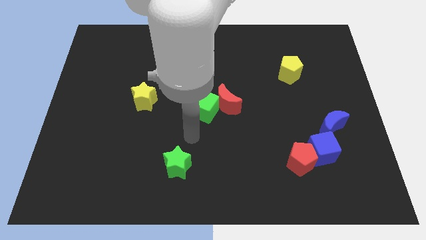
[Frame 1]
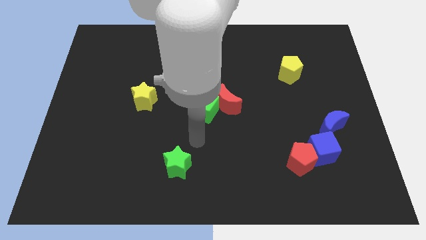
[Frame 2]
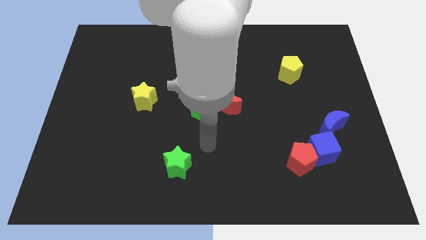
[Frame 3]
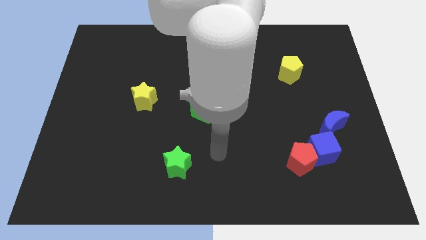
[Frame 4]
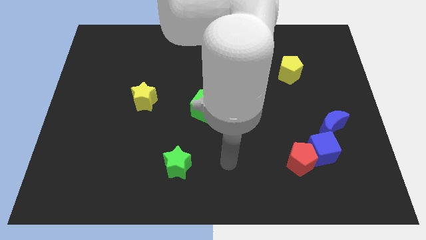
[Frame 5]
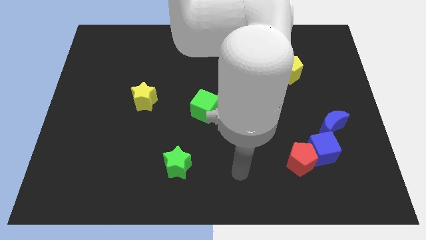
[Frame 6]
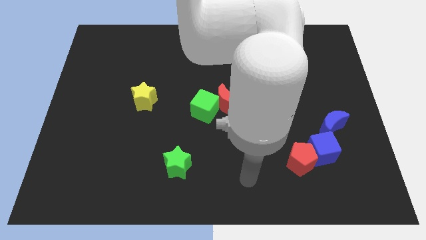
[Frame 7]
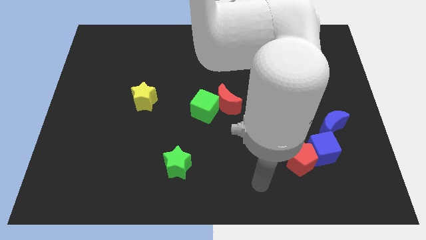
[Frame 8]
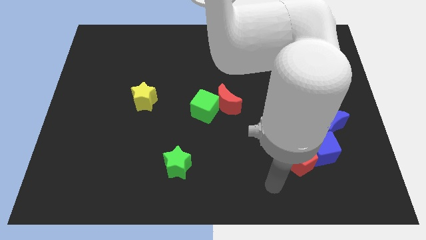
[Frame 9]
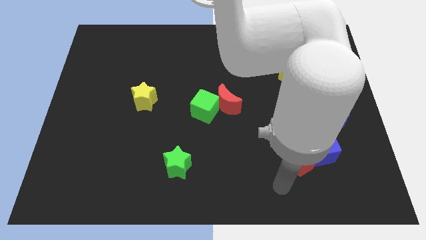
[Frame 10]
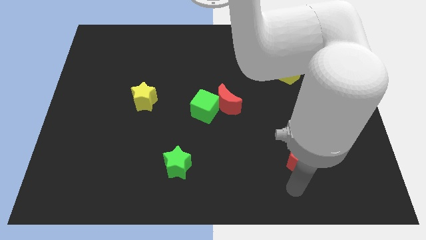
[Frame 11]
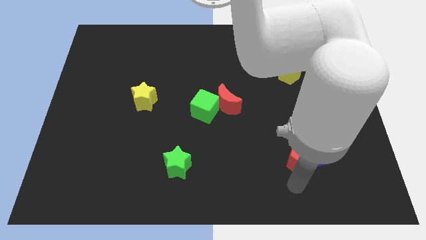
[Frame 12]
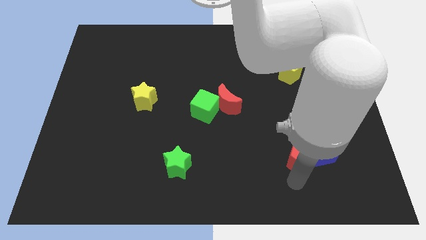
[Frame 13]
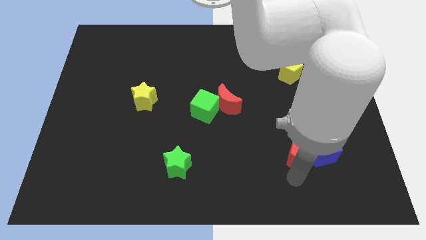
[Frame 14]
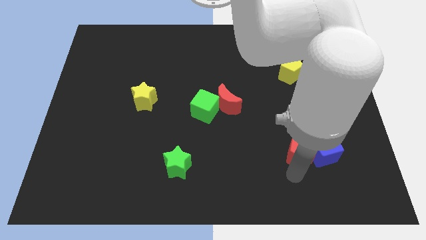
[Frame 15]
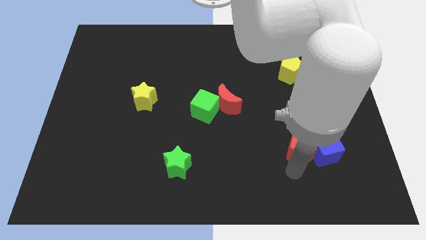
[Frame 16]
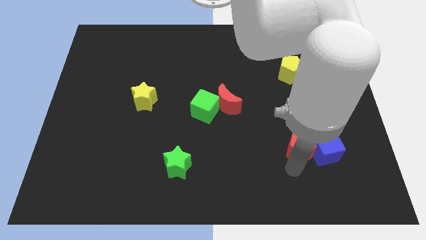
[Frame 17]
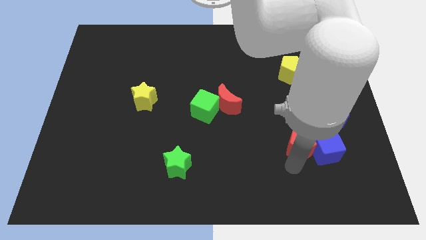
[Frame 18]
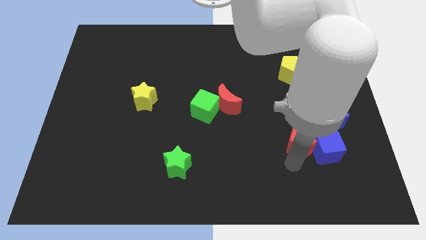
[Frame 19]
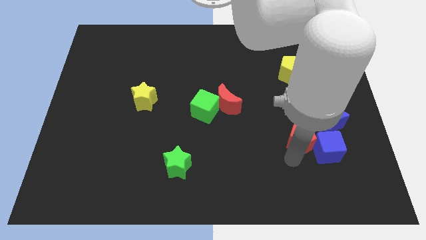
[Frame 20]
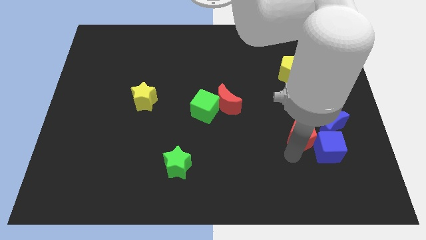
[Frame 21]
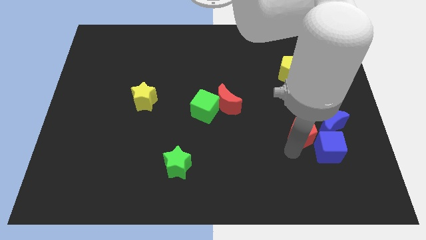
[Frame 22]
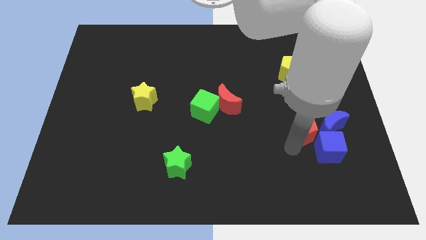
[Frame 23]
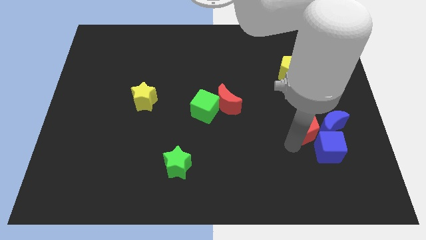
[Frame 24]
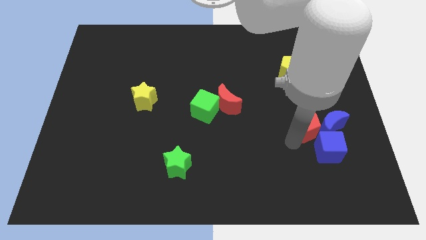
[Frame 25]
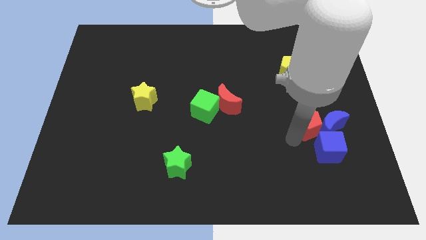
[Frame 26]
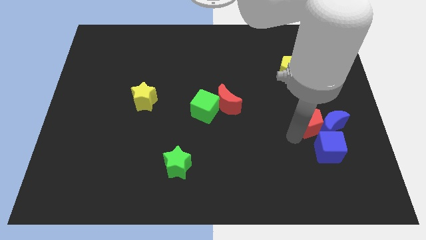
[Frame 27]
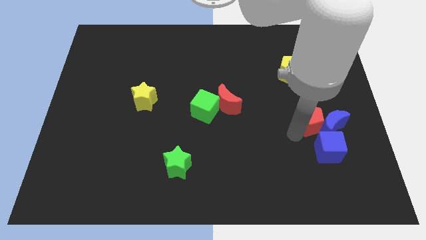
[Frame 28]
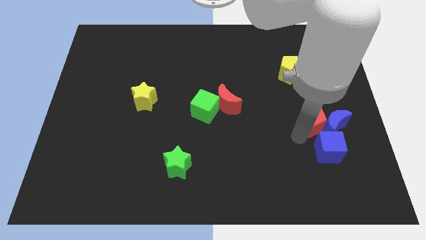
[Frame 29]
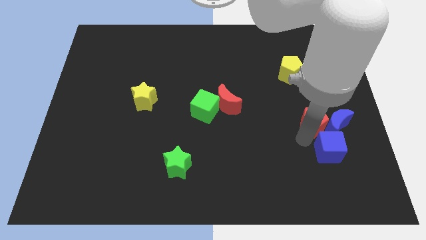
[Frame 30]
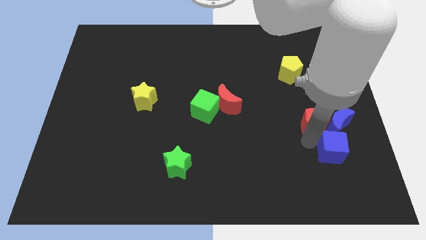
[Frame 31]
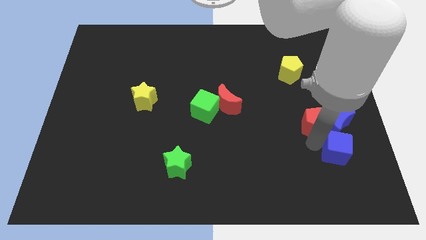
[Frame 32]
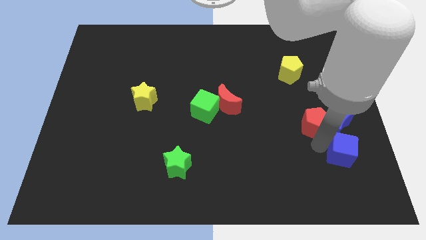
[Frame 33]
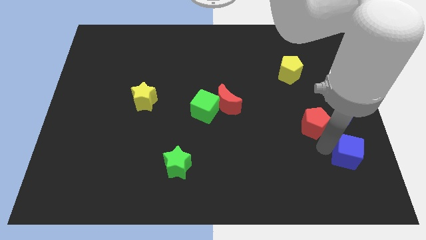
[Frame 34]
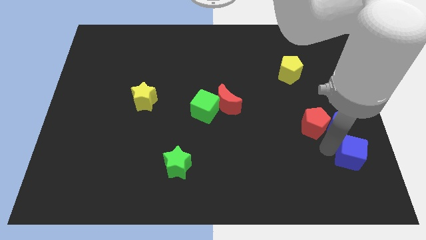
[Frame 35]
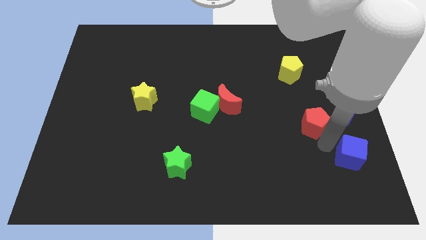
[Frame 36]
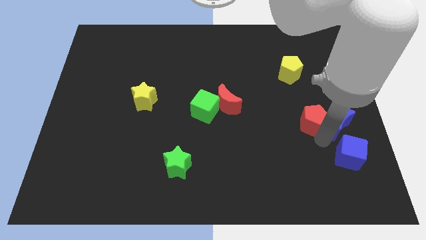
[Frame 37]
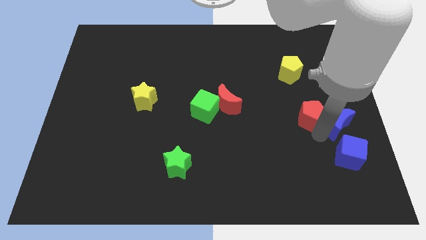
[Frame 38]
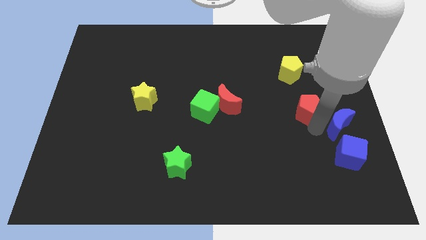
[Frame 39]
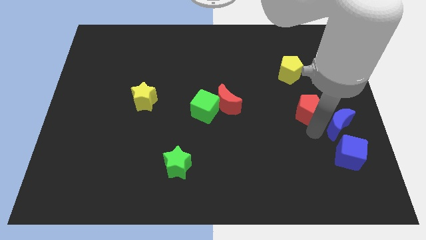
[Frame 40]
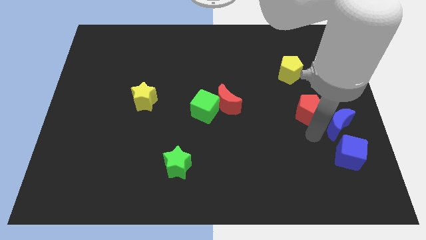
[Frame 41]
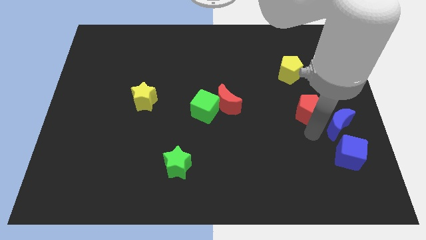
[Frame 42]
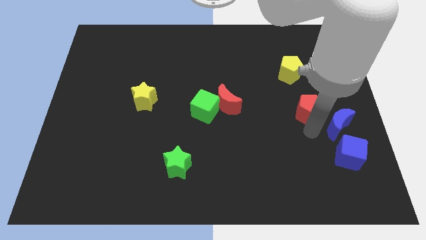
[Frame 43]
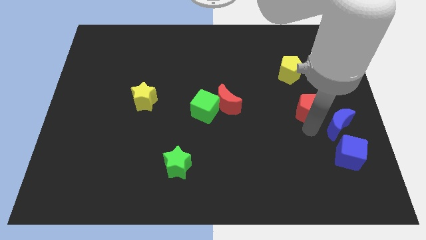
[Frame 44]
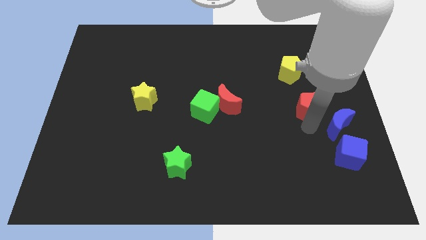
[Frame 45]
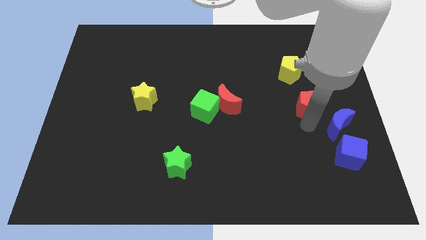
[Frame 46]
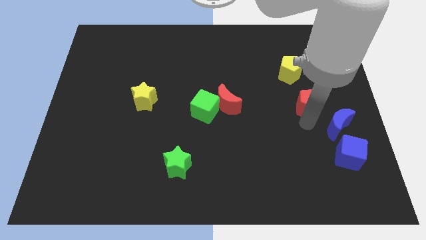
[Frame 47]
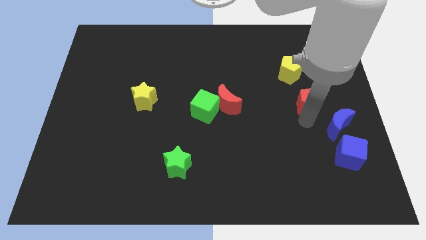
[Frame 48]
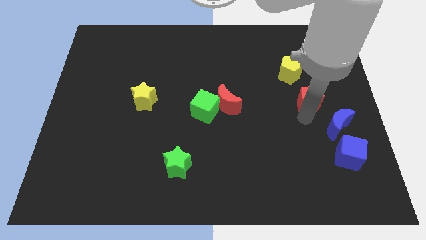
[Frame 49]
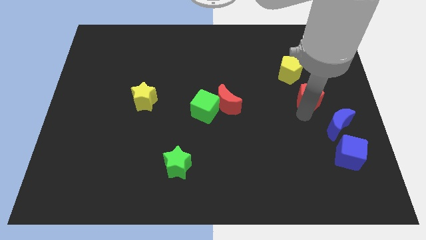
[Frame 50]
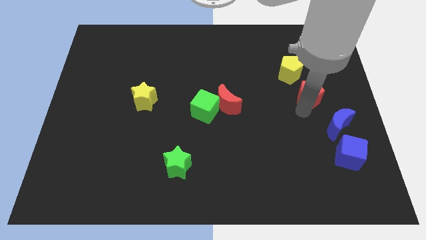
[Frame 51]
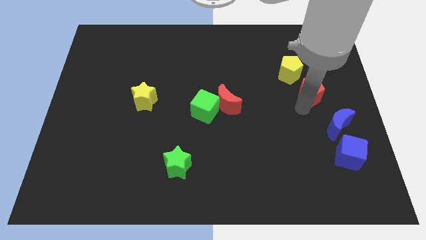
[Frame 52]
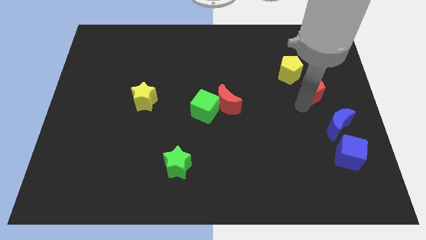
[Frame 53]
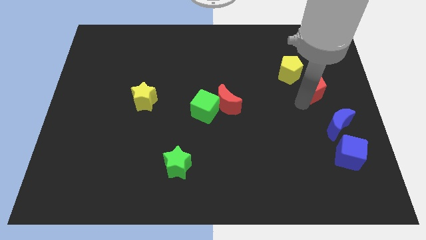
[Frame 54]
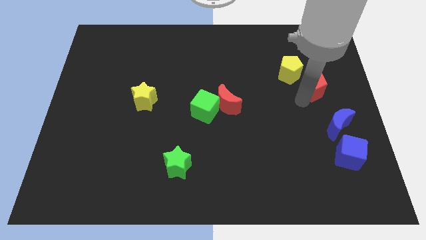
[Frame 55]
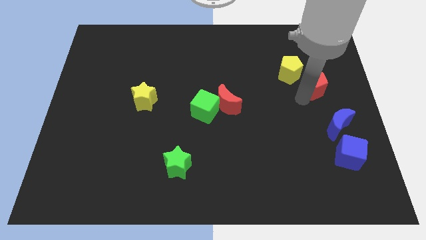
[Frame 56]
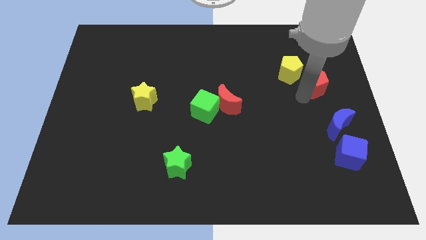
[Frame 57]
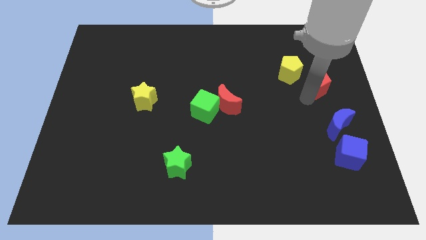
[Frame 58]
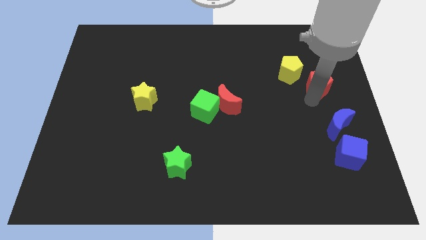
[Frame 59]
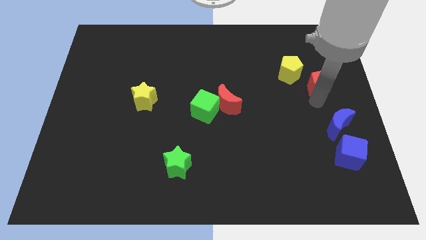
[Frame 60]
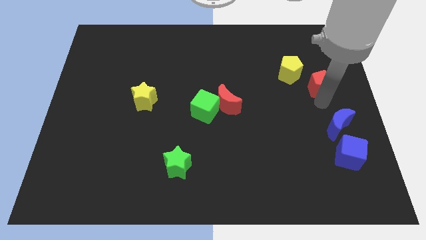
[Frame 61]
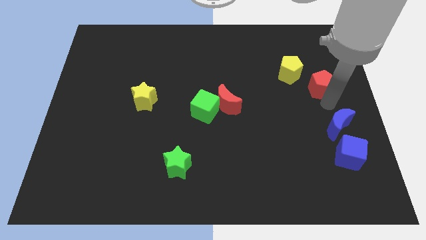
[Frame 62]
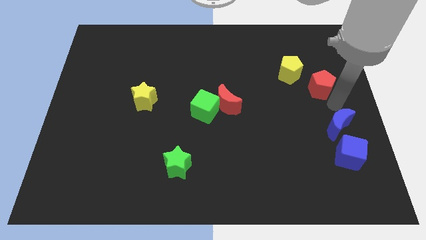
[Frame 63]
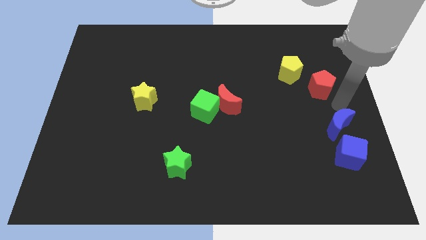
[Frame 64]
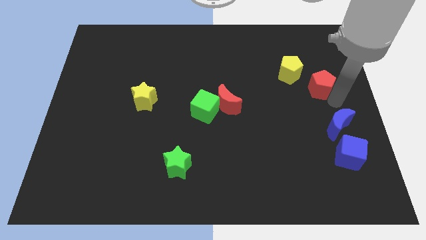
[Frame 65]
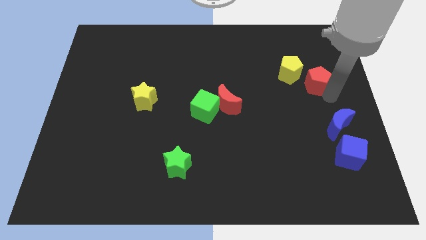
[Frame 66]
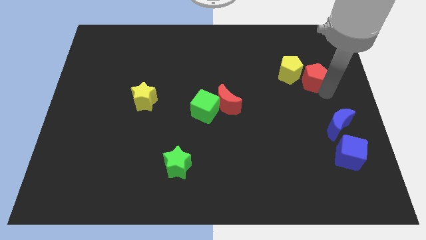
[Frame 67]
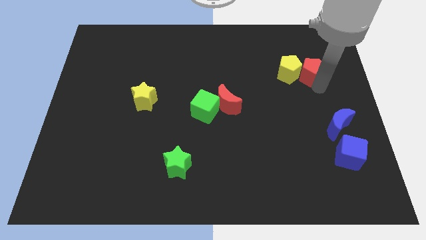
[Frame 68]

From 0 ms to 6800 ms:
push the red pentagon to the top right of the yellow pentagon

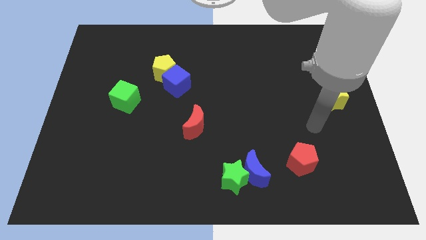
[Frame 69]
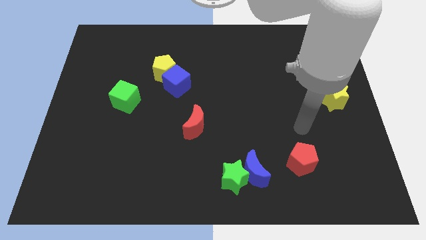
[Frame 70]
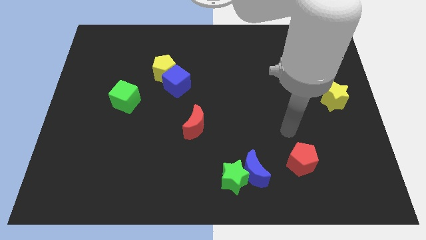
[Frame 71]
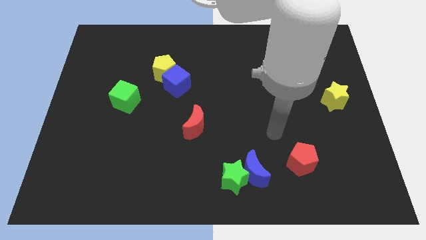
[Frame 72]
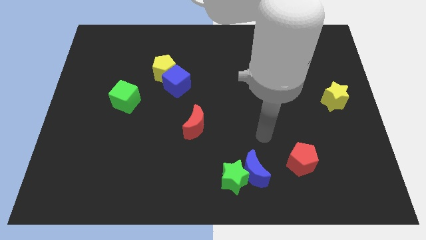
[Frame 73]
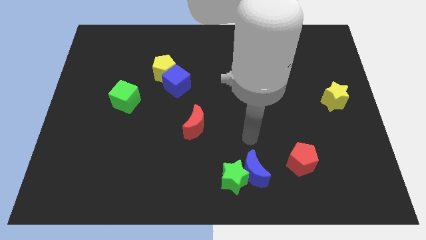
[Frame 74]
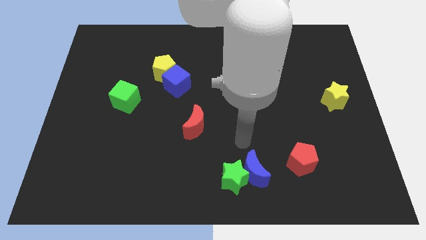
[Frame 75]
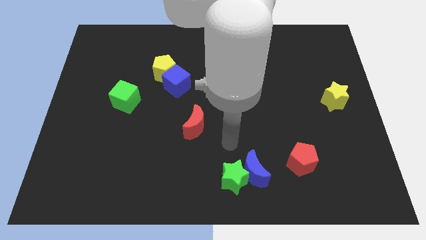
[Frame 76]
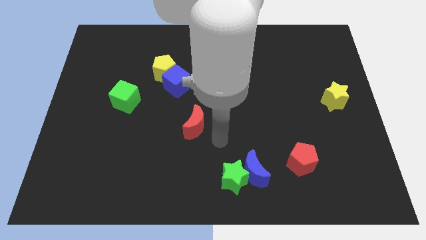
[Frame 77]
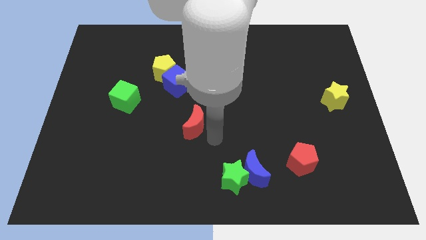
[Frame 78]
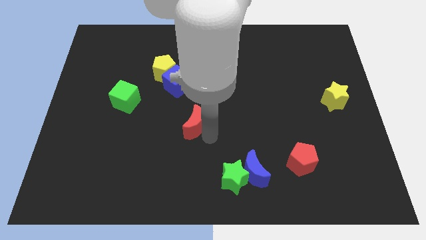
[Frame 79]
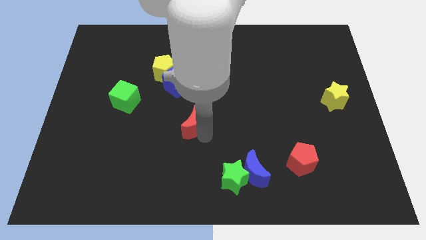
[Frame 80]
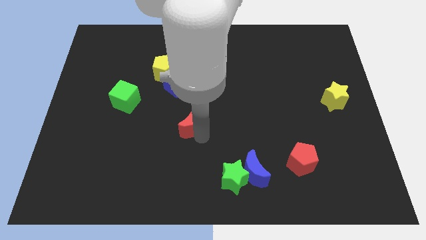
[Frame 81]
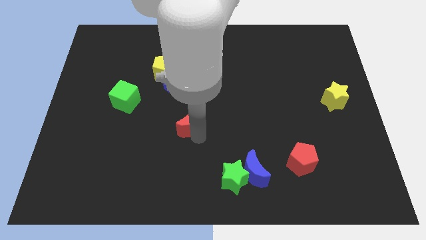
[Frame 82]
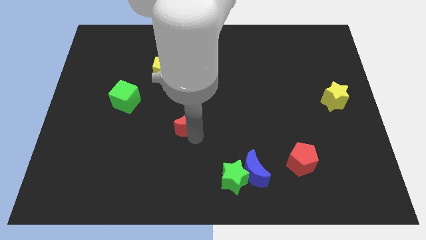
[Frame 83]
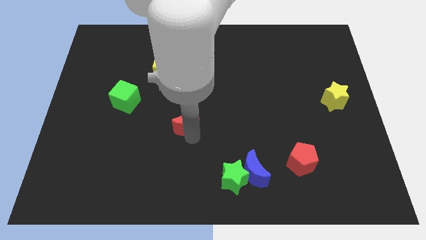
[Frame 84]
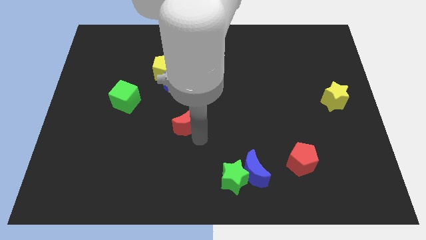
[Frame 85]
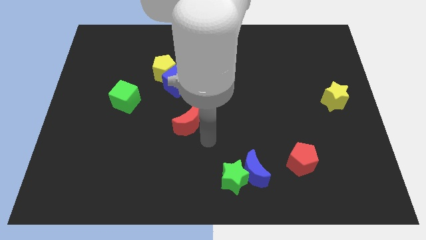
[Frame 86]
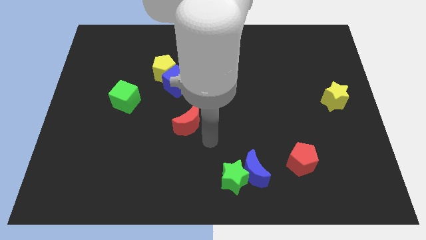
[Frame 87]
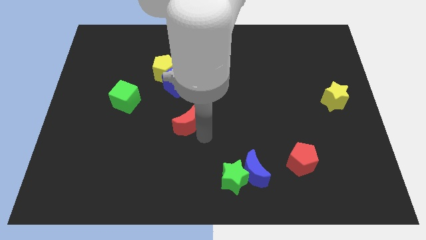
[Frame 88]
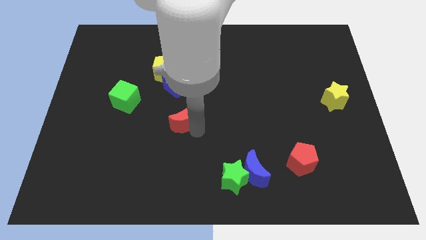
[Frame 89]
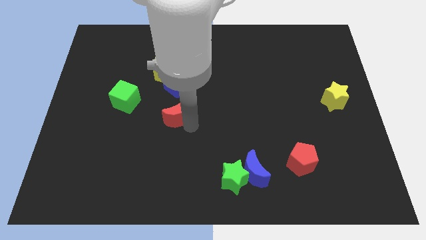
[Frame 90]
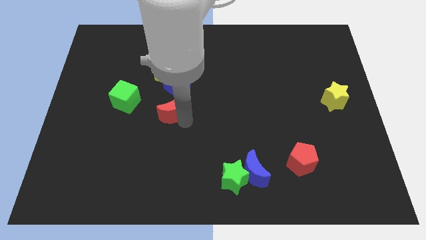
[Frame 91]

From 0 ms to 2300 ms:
slide the red moon below the yellow pentagon
